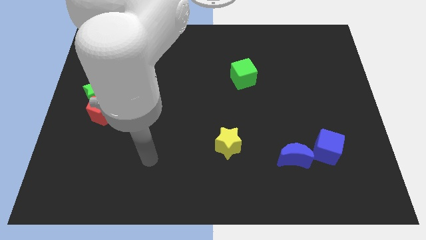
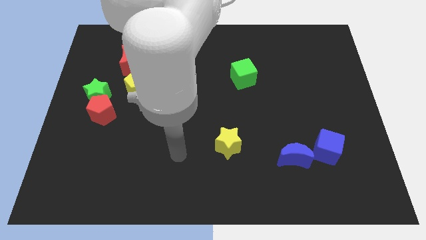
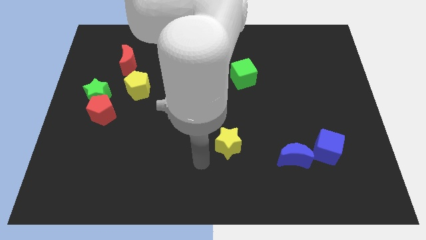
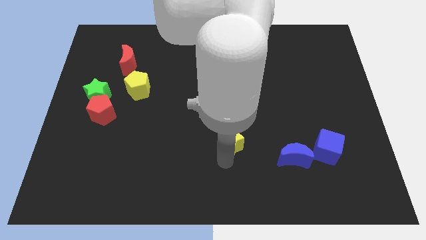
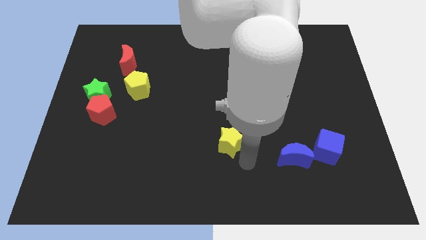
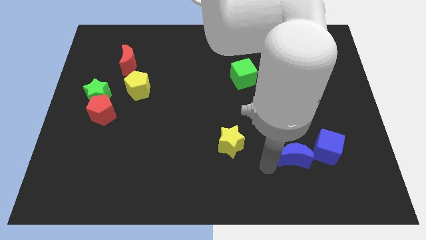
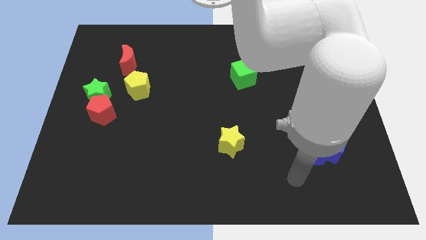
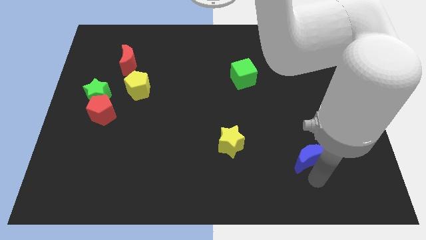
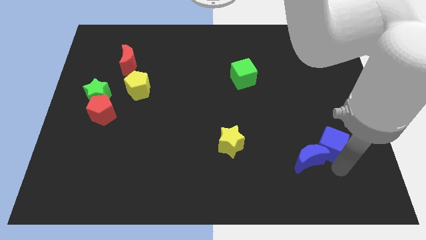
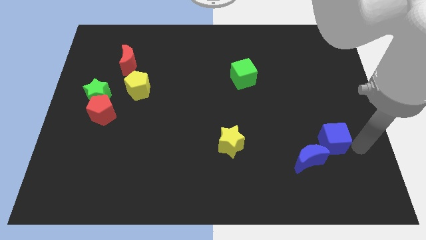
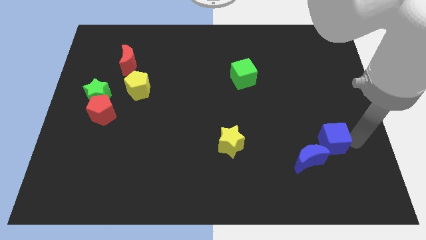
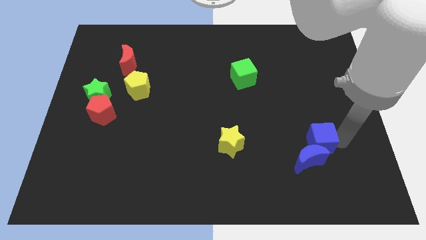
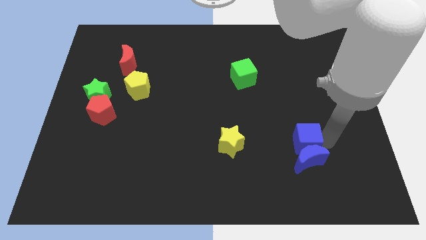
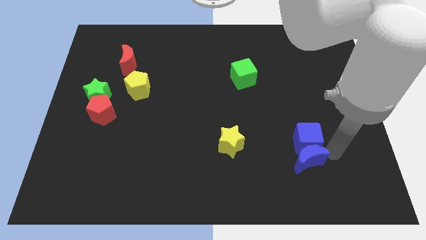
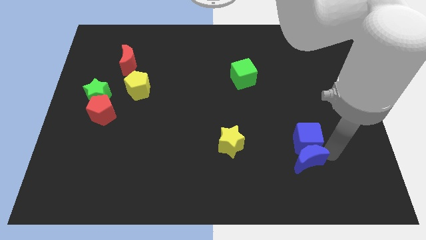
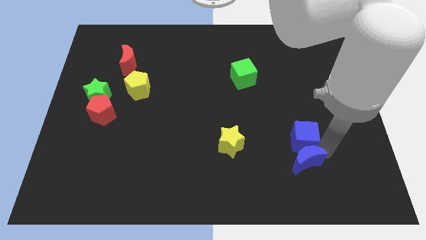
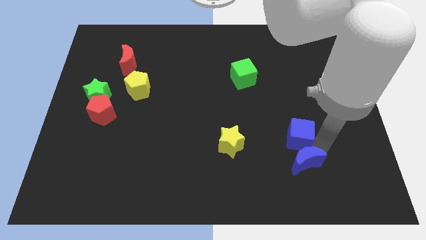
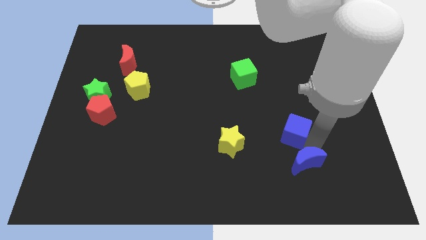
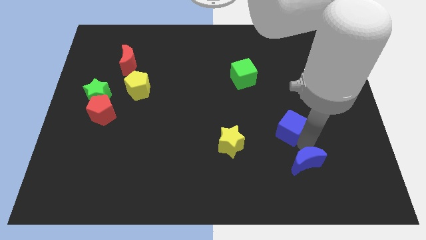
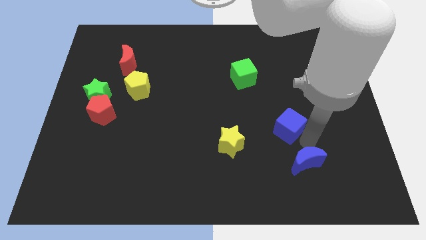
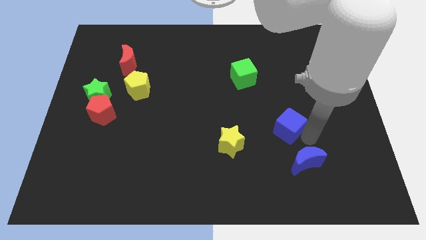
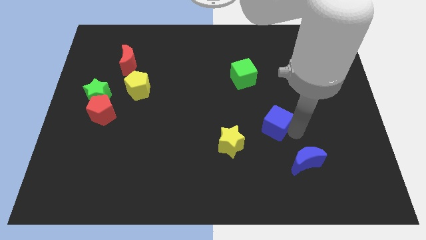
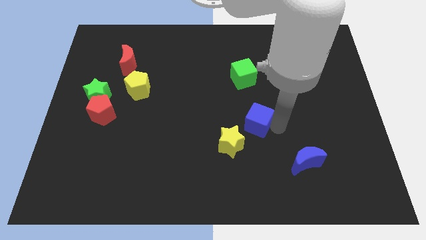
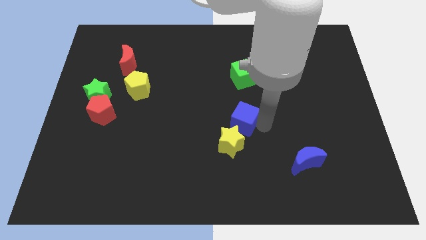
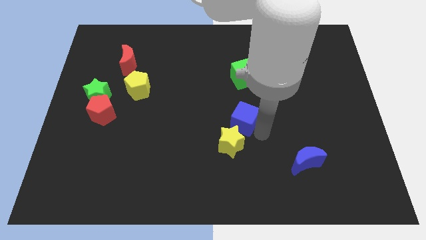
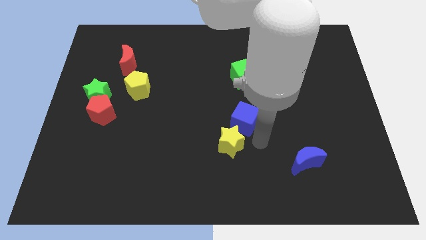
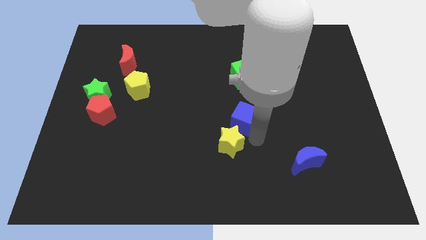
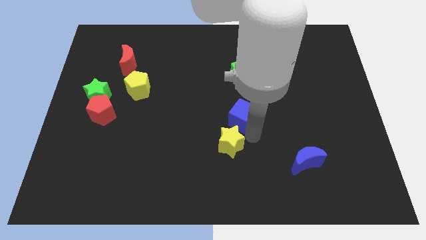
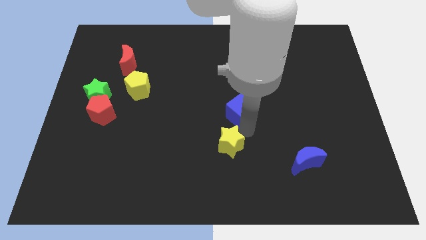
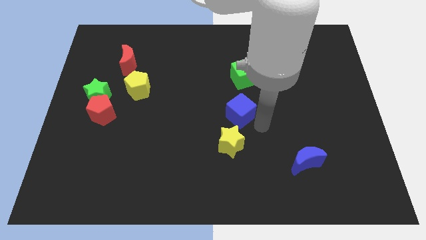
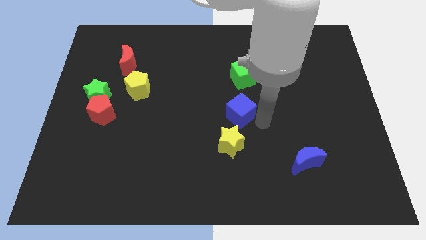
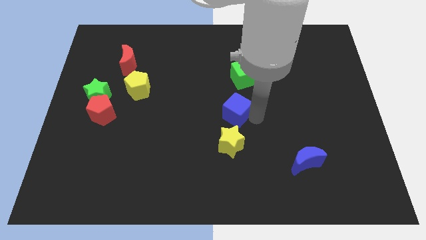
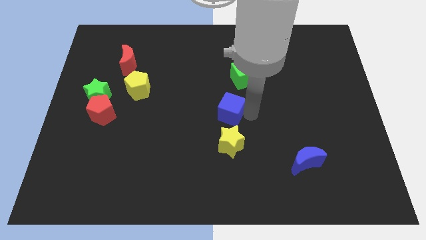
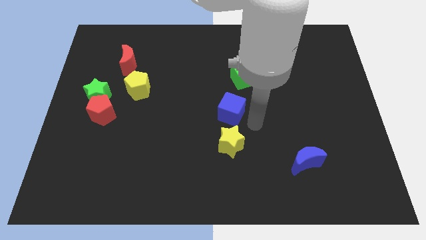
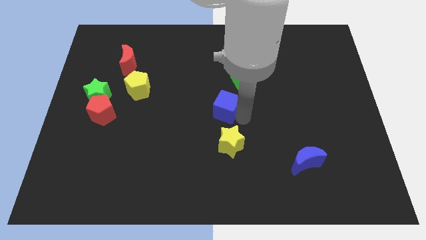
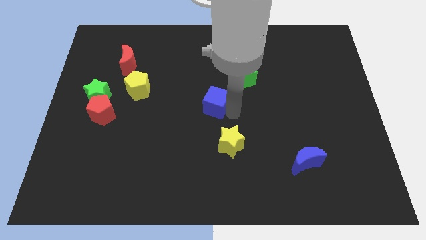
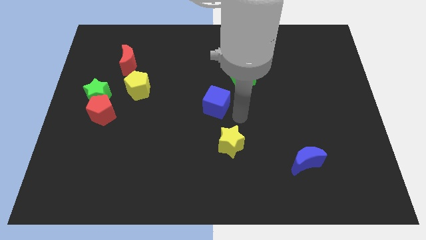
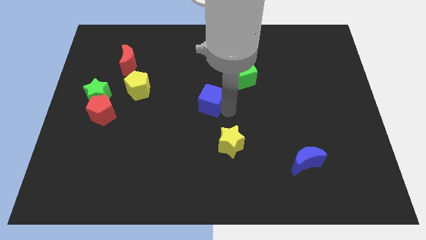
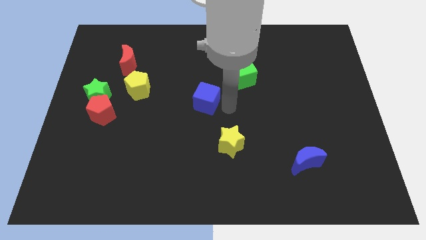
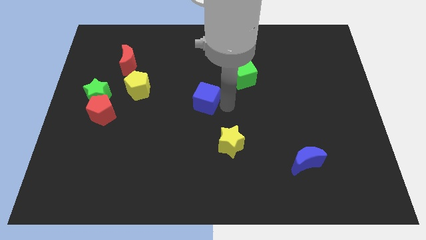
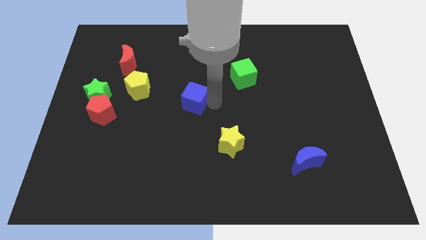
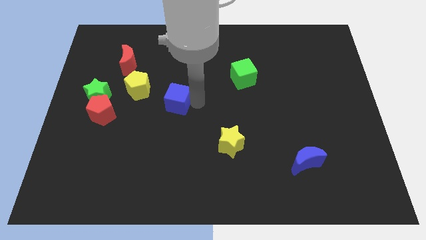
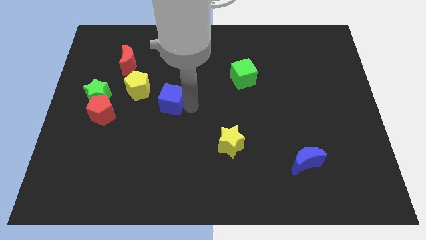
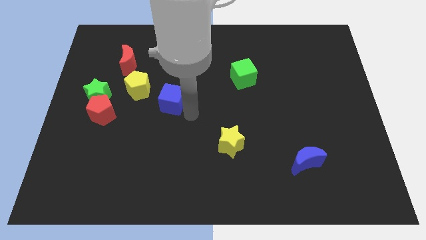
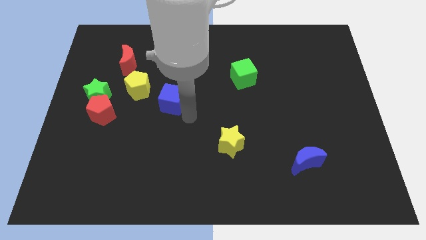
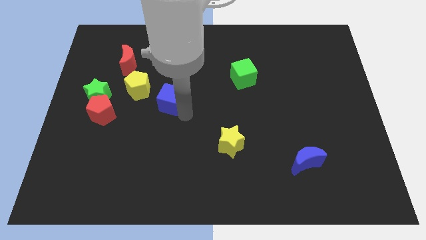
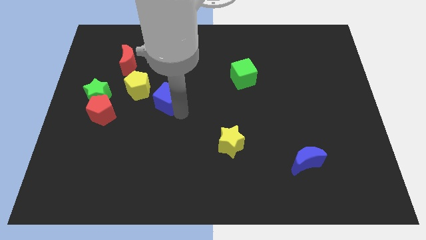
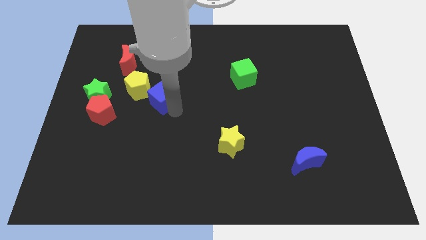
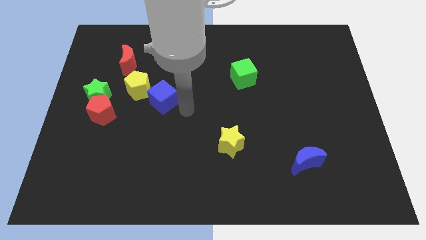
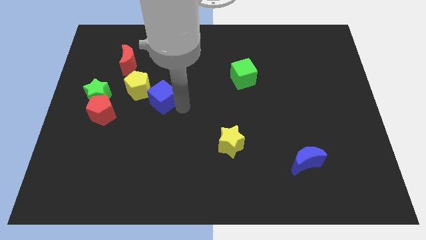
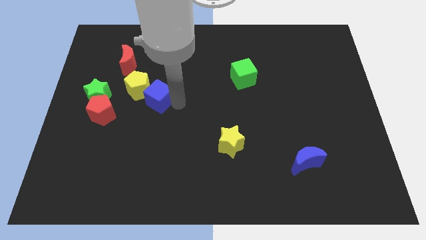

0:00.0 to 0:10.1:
put the blue cube close to the yellow pentagon

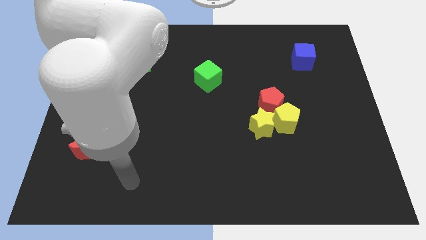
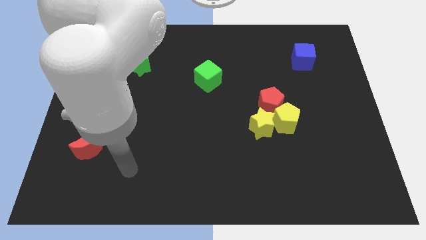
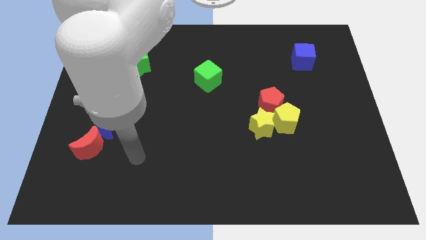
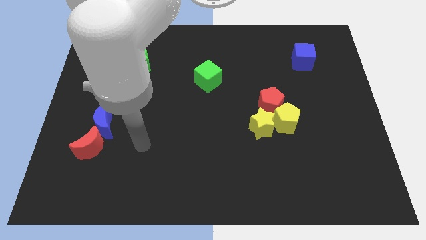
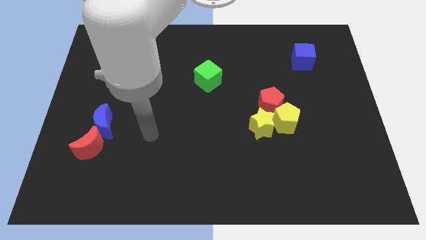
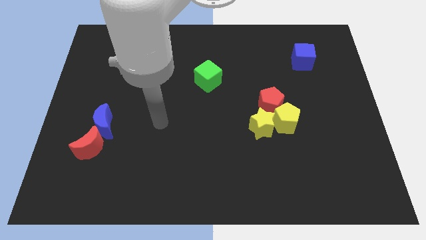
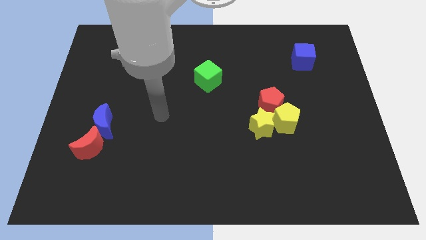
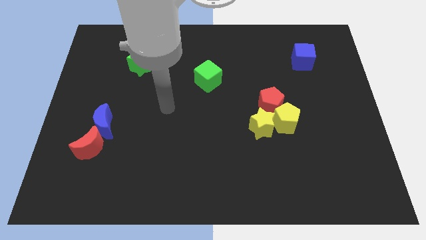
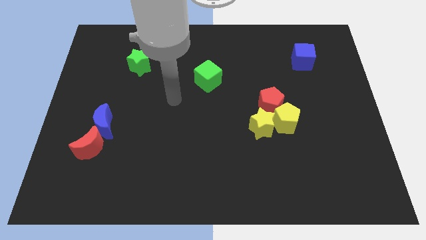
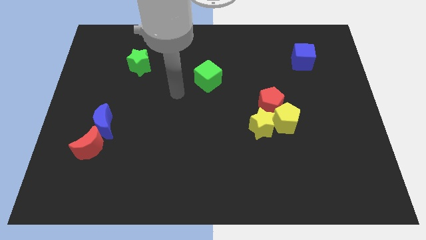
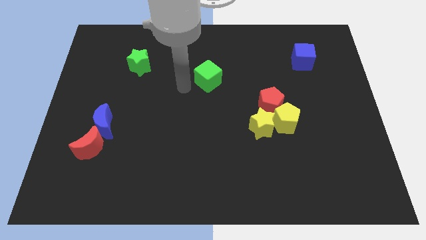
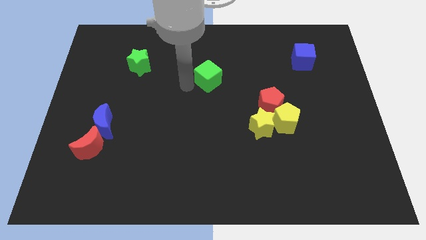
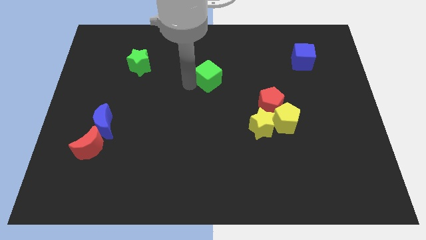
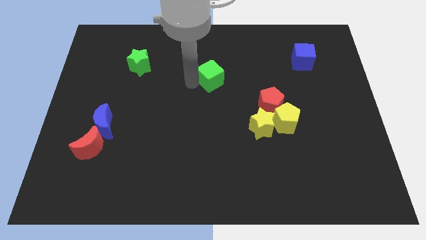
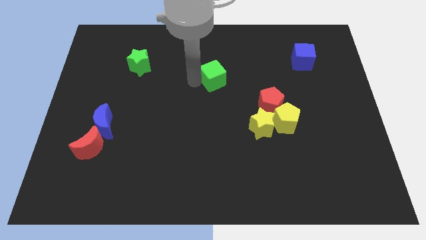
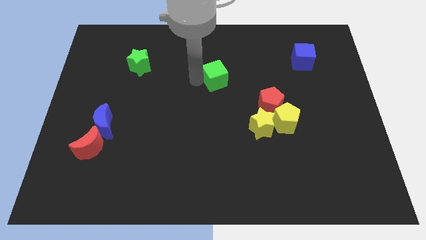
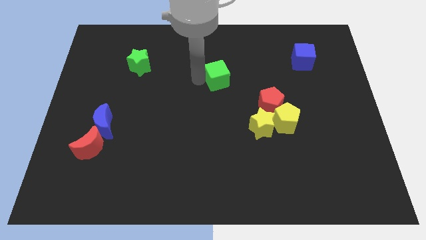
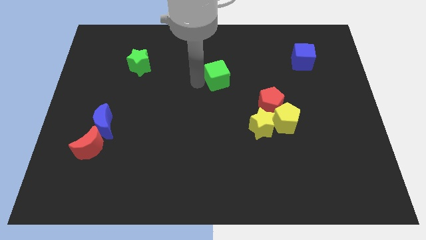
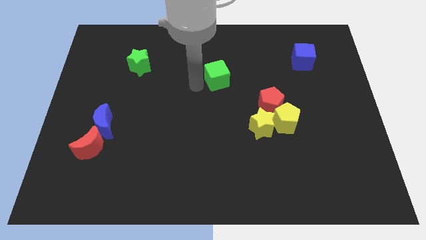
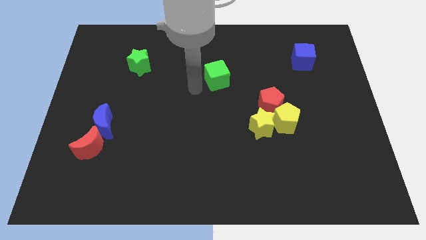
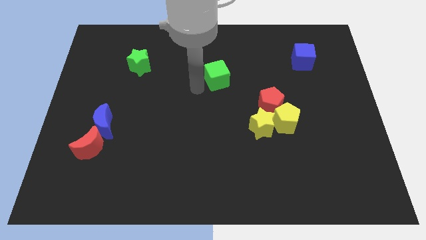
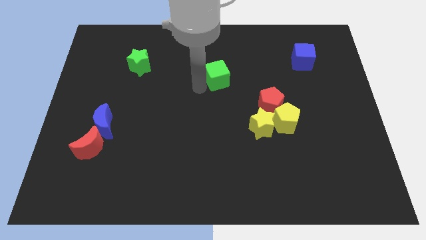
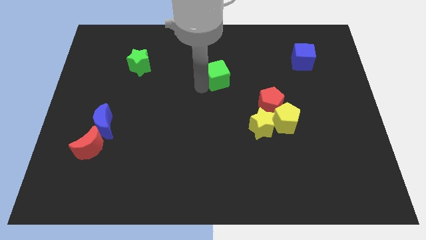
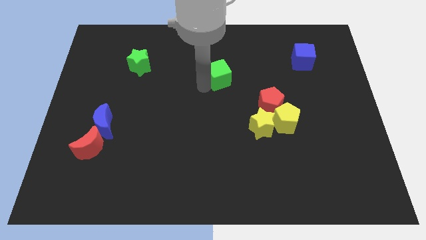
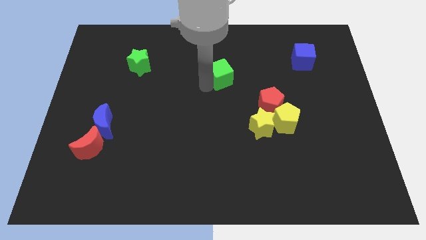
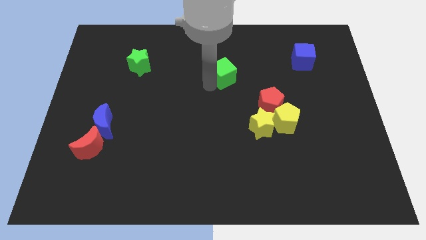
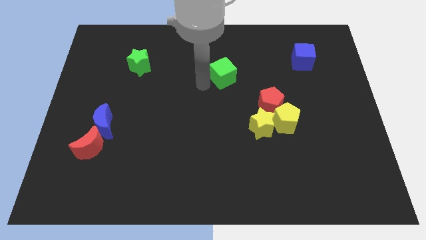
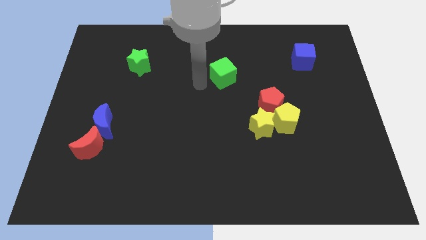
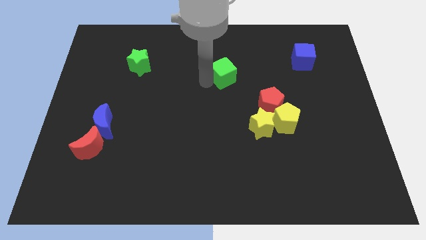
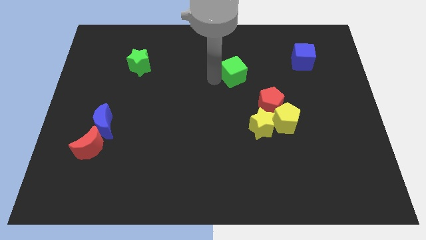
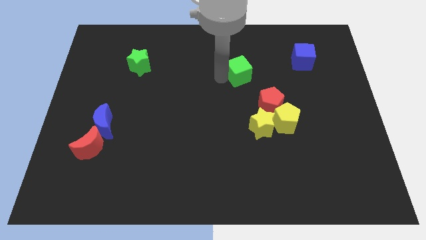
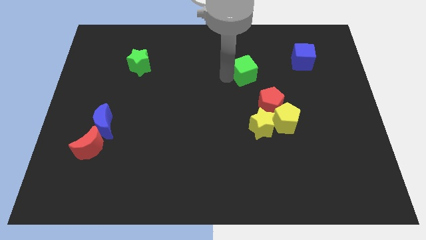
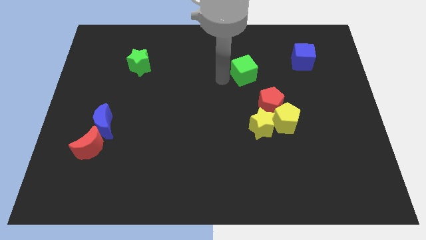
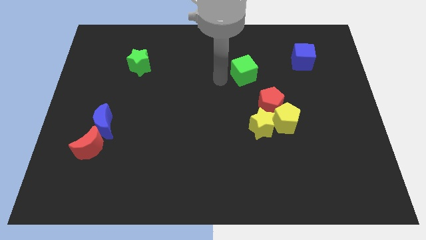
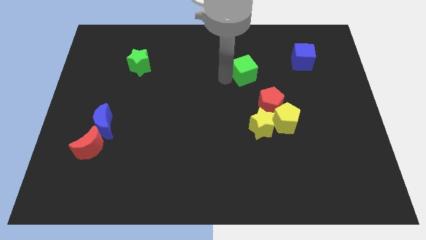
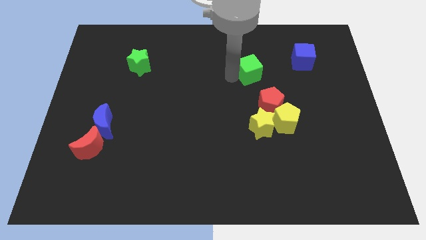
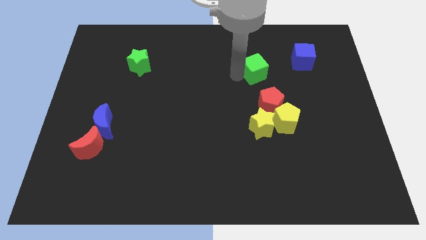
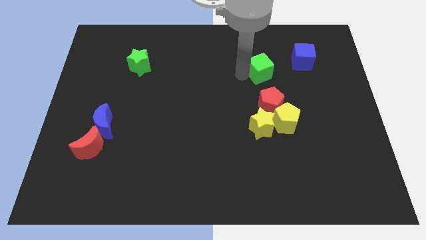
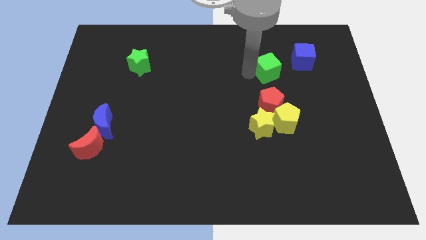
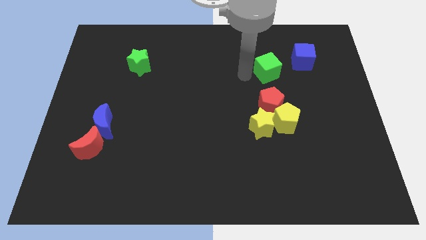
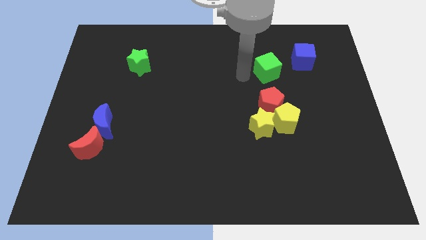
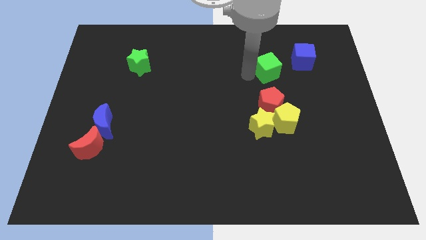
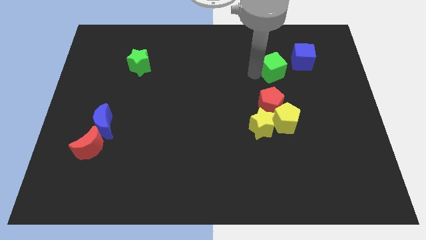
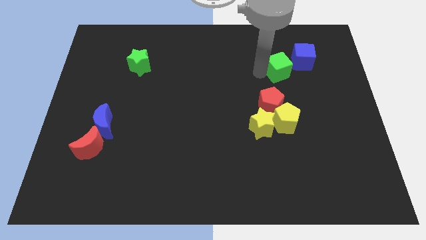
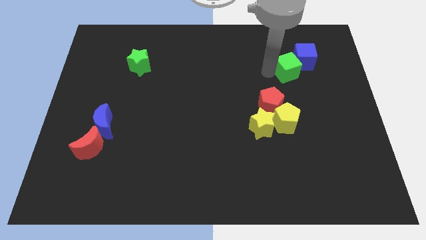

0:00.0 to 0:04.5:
move the green cube close to the blue cube
